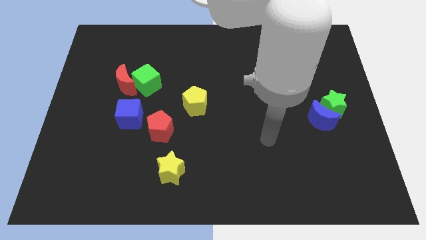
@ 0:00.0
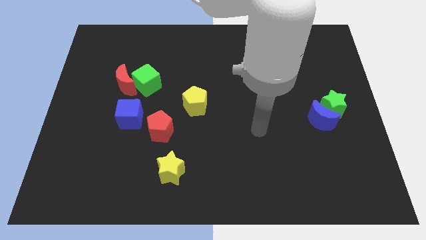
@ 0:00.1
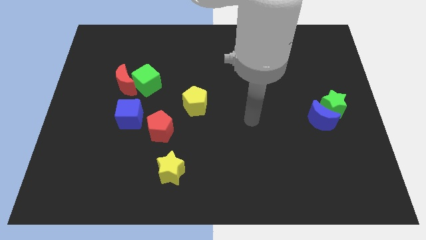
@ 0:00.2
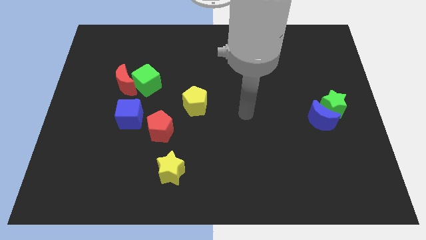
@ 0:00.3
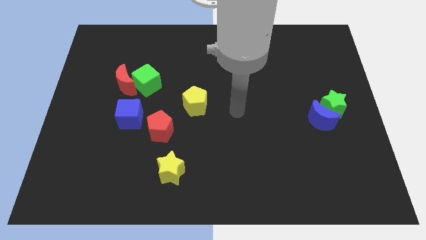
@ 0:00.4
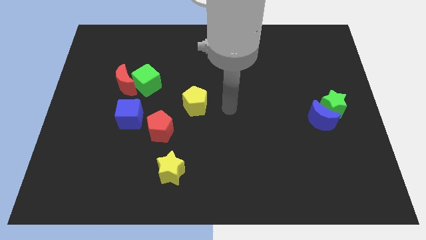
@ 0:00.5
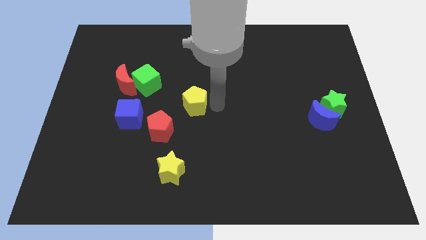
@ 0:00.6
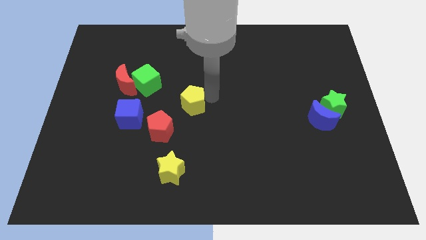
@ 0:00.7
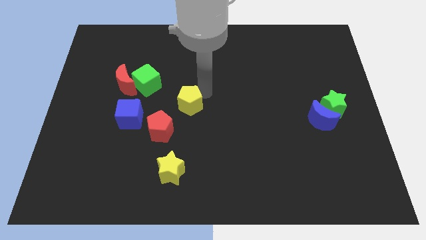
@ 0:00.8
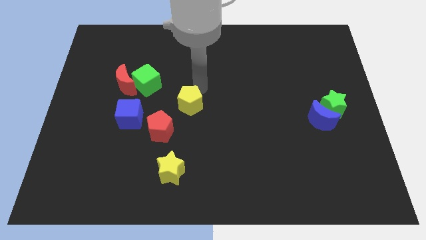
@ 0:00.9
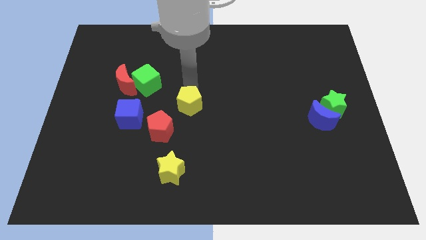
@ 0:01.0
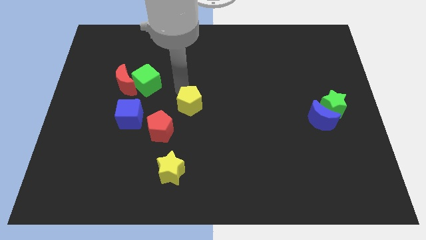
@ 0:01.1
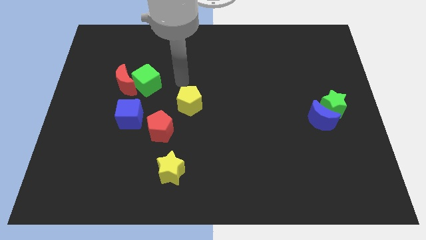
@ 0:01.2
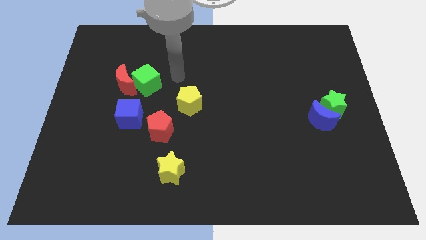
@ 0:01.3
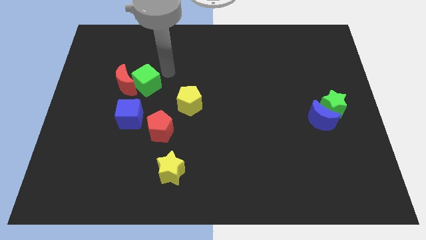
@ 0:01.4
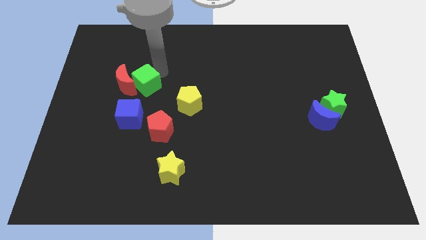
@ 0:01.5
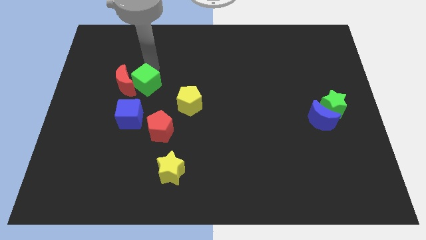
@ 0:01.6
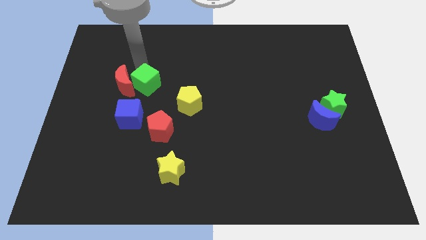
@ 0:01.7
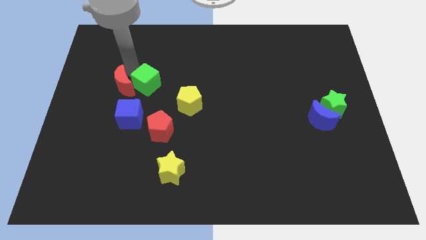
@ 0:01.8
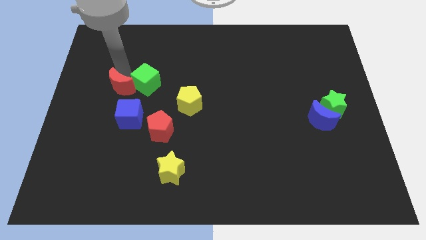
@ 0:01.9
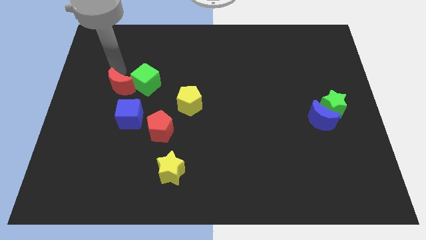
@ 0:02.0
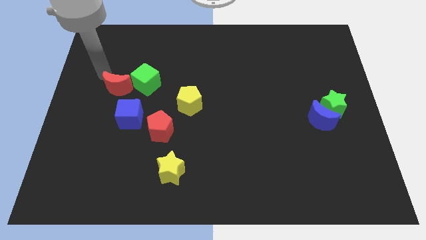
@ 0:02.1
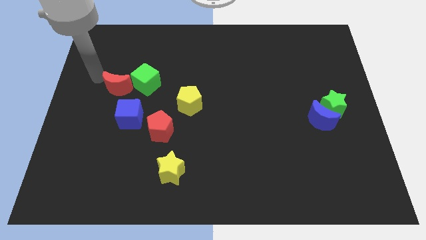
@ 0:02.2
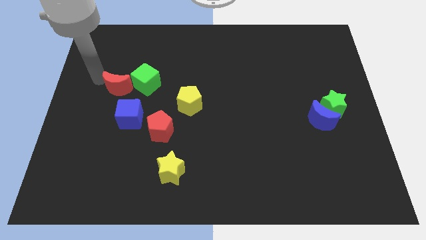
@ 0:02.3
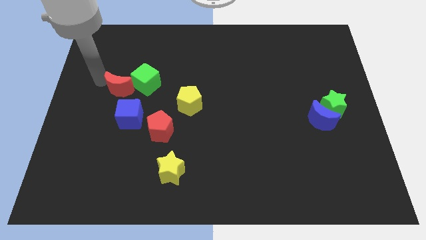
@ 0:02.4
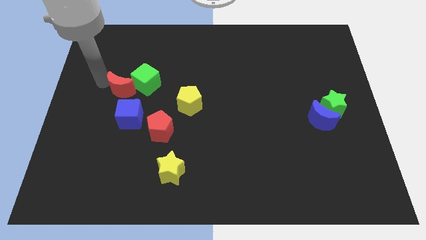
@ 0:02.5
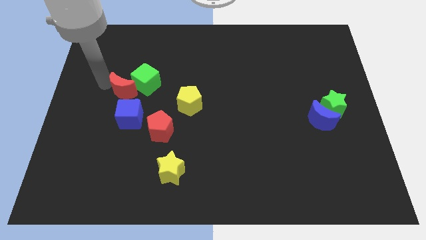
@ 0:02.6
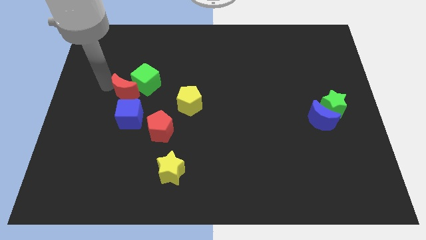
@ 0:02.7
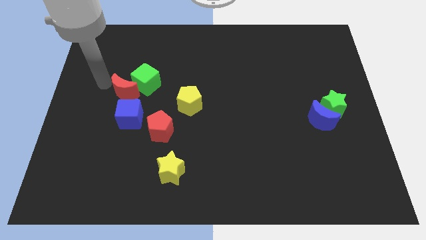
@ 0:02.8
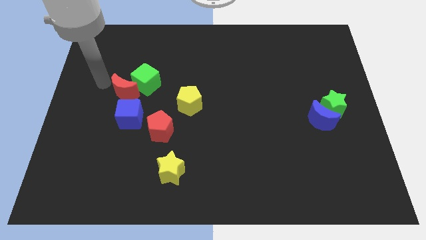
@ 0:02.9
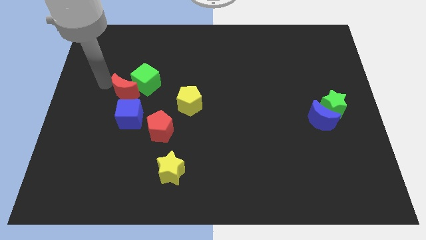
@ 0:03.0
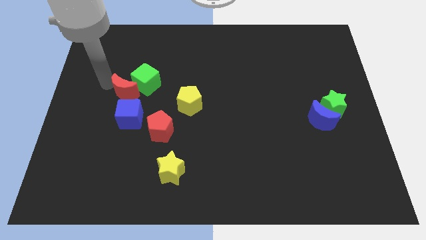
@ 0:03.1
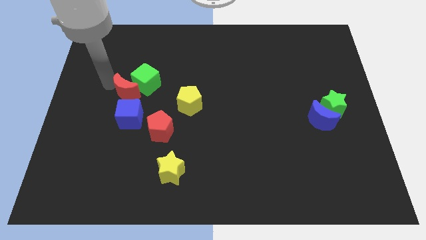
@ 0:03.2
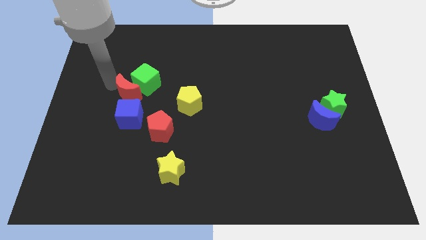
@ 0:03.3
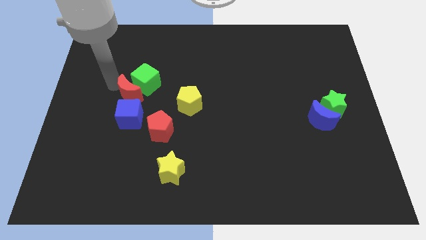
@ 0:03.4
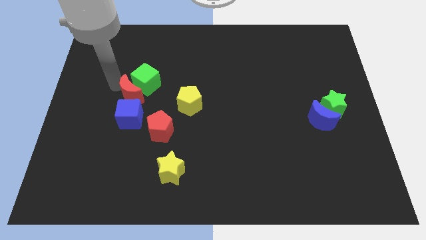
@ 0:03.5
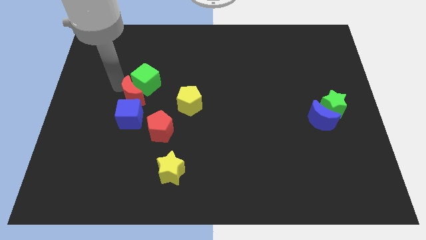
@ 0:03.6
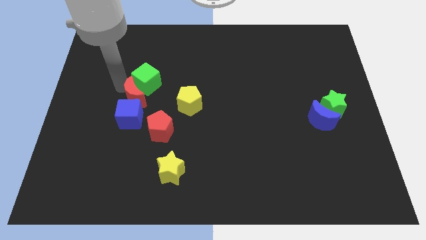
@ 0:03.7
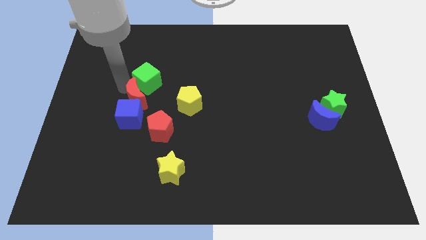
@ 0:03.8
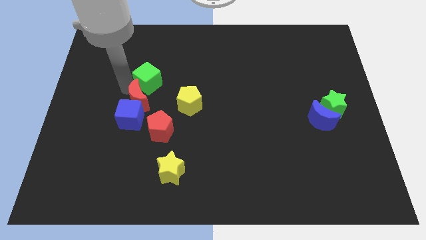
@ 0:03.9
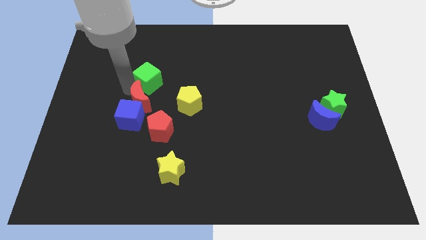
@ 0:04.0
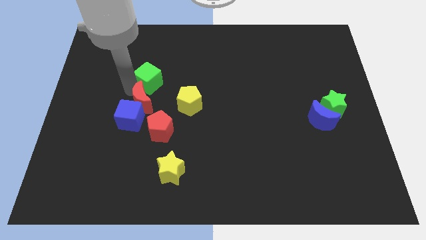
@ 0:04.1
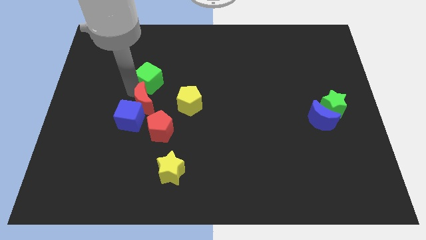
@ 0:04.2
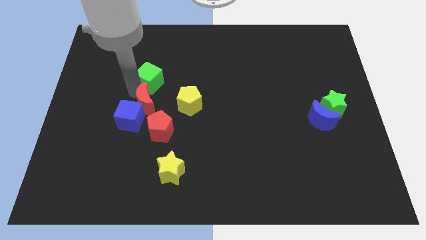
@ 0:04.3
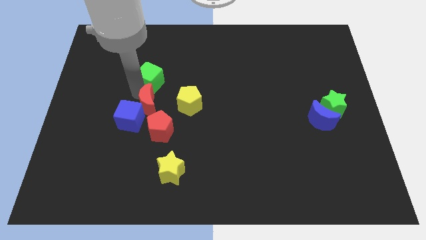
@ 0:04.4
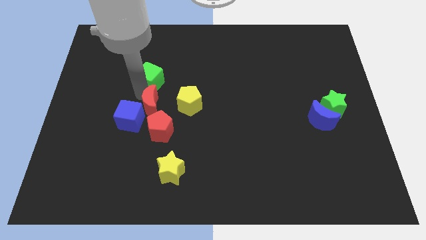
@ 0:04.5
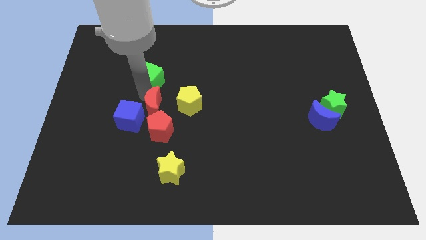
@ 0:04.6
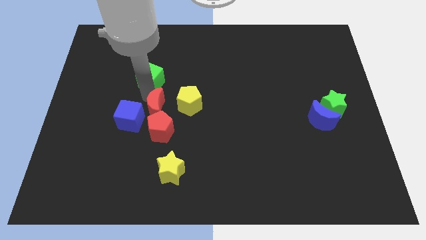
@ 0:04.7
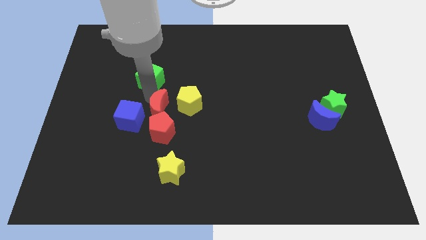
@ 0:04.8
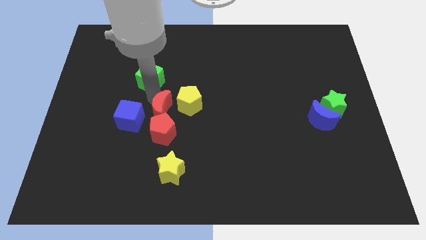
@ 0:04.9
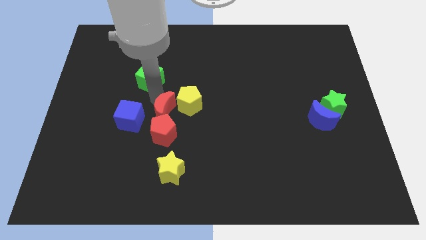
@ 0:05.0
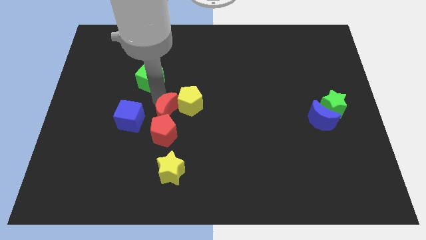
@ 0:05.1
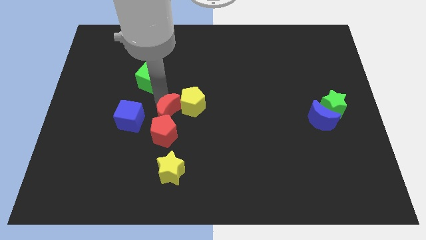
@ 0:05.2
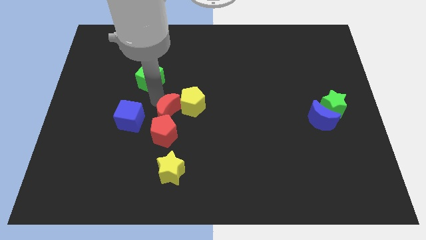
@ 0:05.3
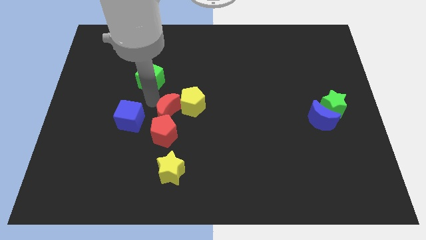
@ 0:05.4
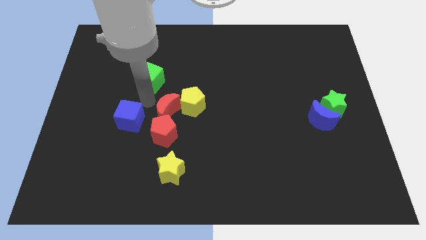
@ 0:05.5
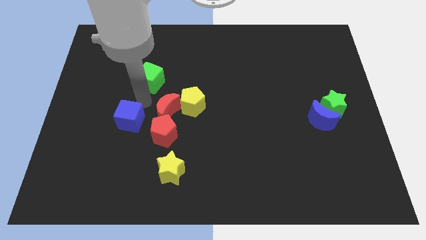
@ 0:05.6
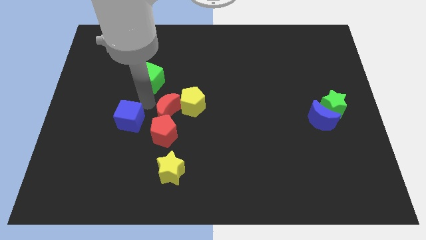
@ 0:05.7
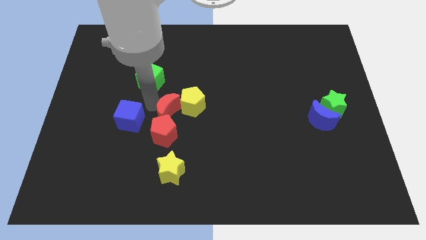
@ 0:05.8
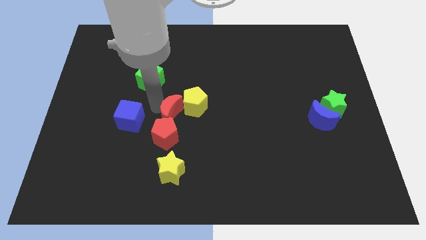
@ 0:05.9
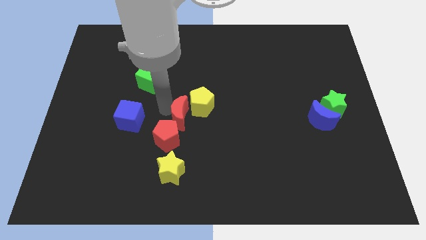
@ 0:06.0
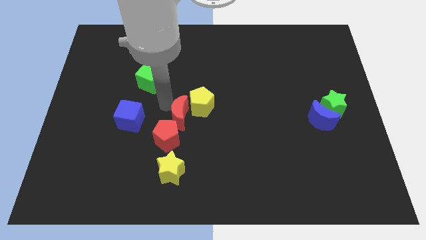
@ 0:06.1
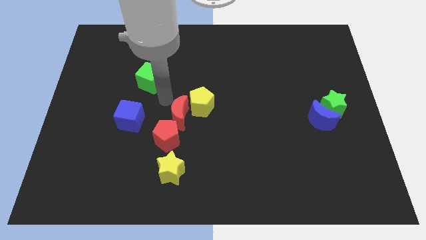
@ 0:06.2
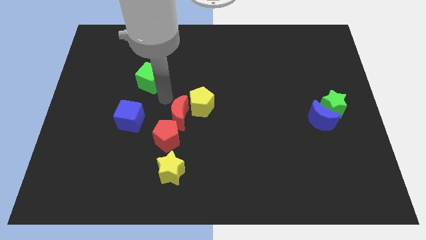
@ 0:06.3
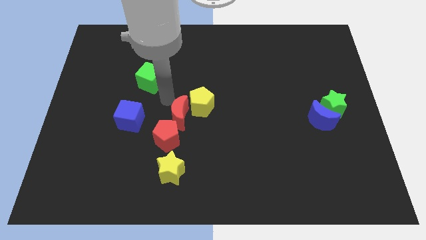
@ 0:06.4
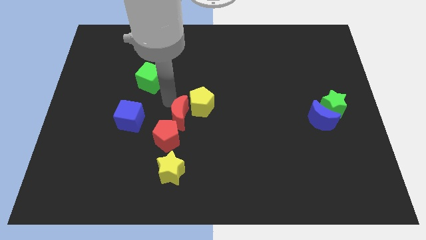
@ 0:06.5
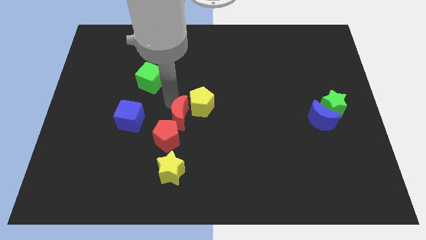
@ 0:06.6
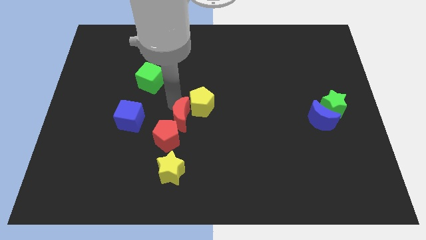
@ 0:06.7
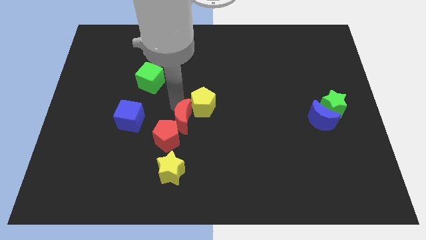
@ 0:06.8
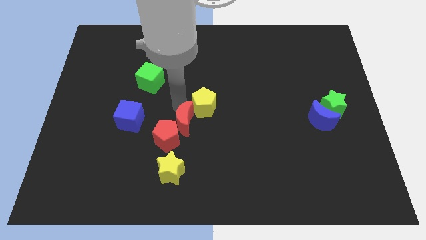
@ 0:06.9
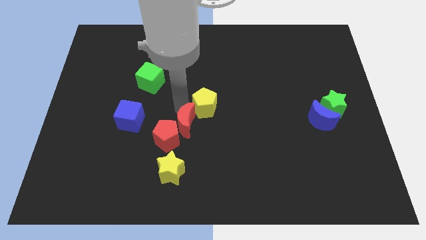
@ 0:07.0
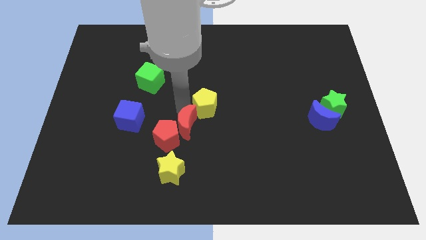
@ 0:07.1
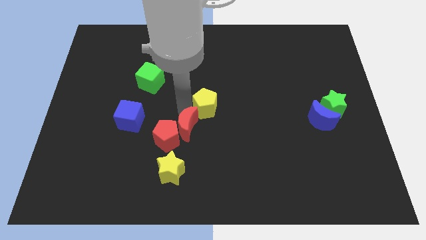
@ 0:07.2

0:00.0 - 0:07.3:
slide the red moon down and then right

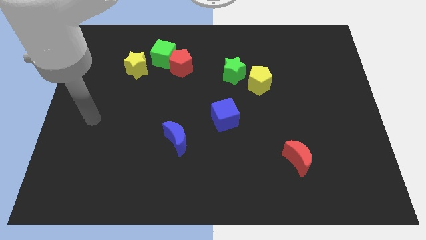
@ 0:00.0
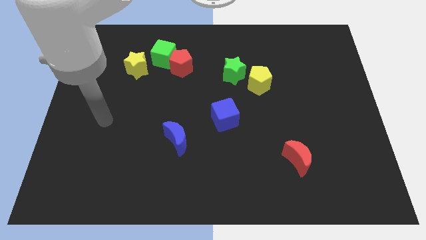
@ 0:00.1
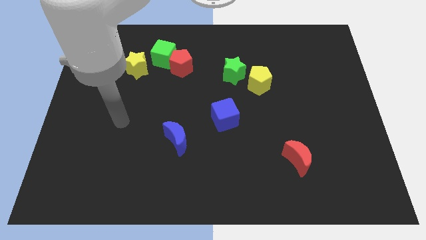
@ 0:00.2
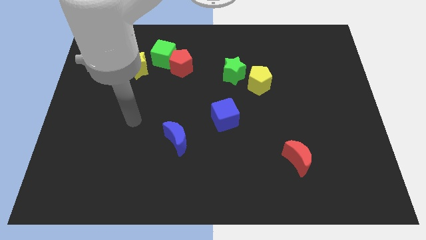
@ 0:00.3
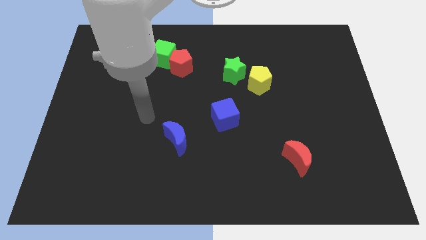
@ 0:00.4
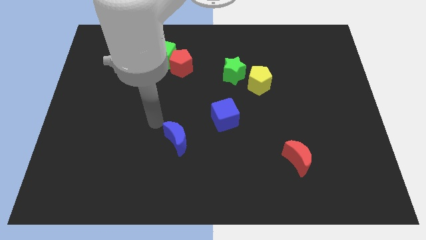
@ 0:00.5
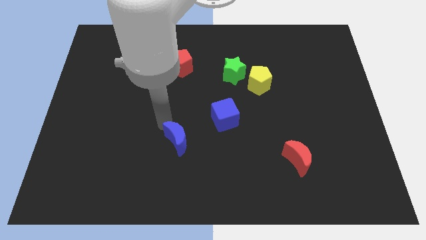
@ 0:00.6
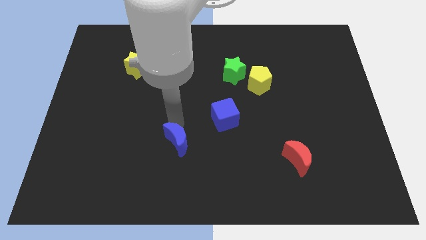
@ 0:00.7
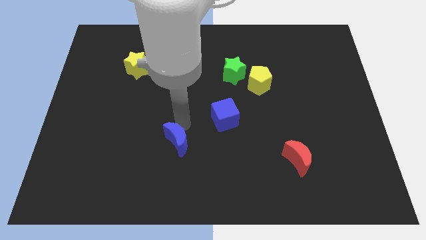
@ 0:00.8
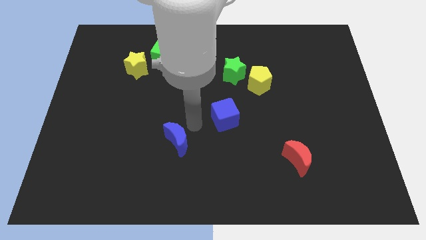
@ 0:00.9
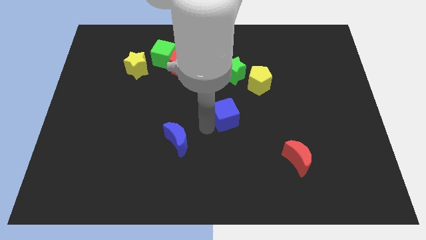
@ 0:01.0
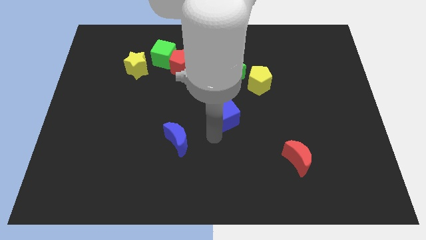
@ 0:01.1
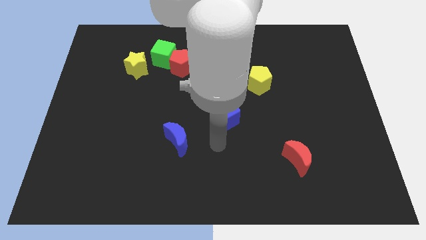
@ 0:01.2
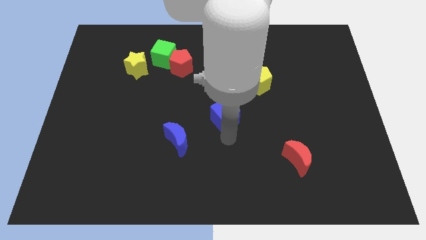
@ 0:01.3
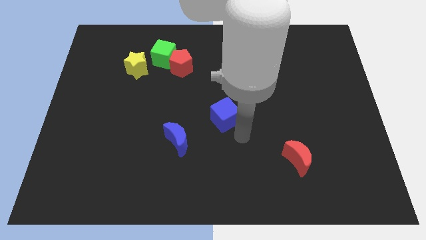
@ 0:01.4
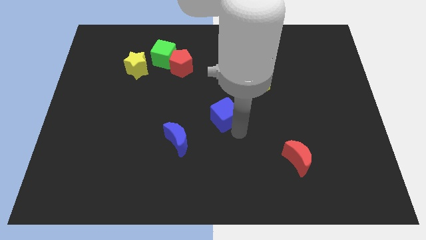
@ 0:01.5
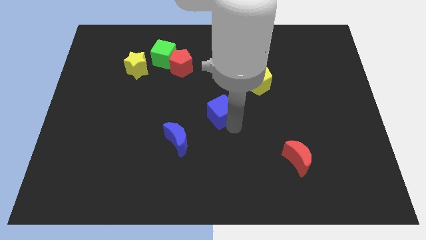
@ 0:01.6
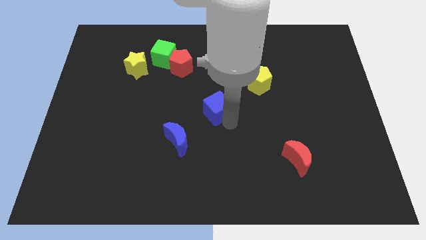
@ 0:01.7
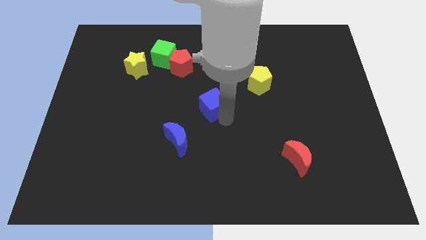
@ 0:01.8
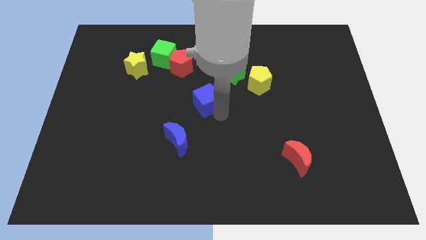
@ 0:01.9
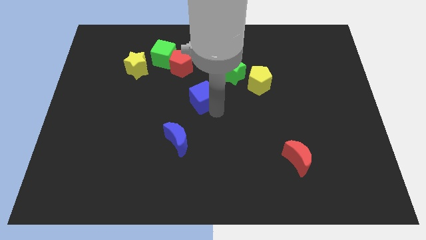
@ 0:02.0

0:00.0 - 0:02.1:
slide the blue cube up and to the left a little bit
